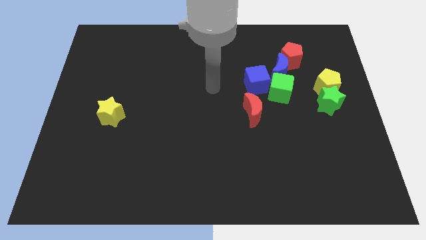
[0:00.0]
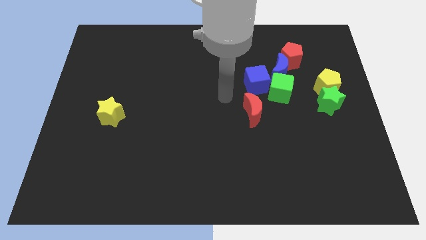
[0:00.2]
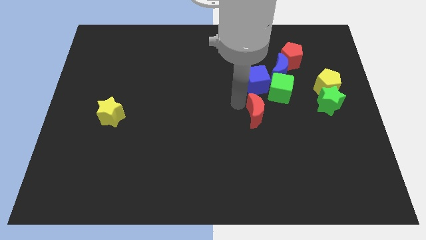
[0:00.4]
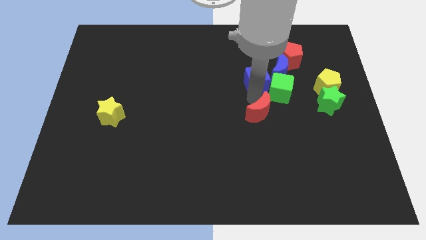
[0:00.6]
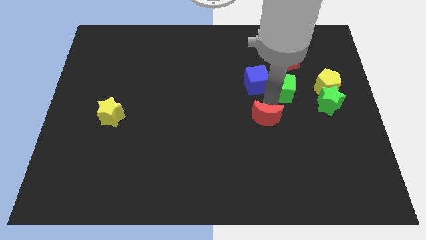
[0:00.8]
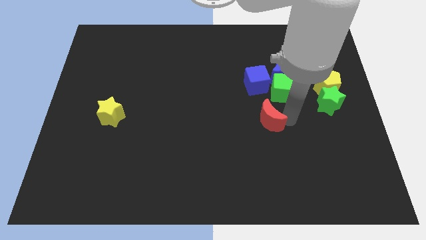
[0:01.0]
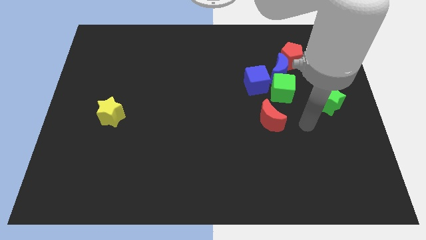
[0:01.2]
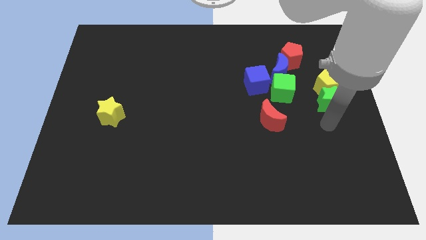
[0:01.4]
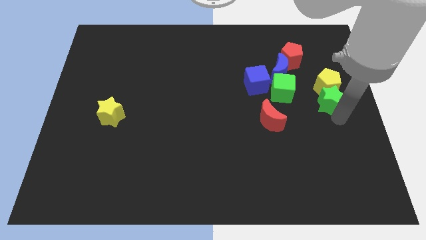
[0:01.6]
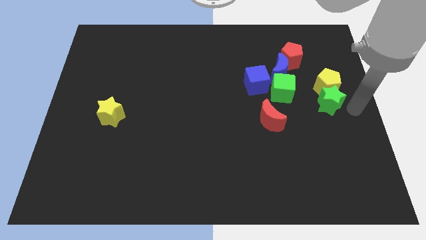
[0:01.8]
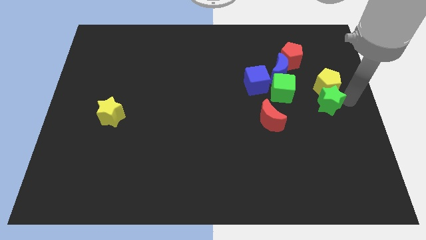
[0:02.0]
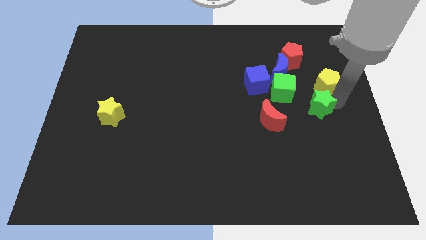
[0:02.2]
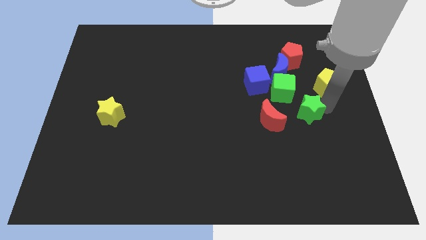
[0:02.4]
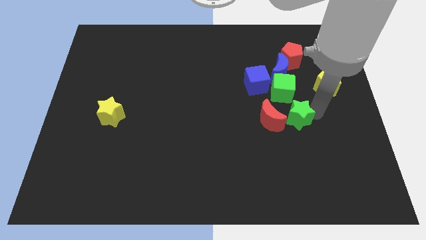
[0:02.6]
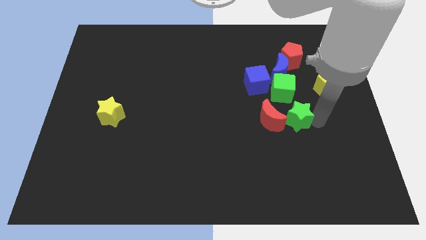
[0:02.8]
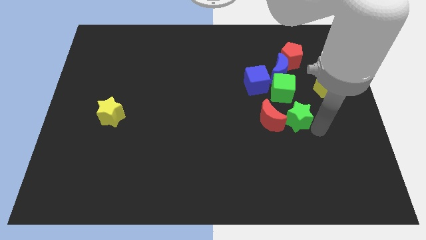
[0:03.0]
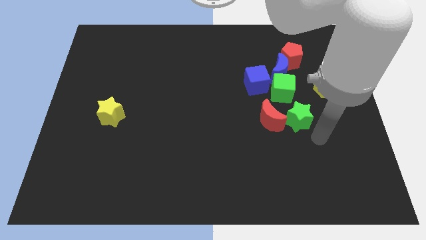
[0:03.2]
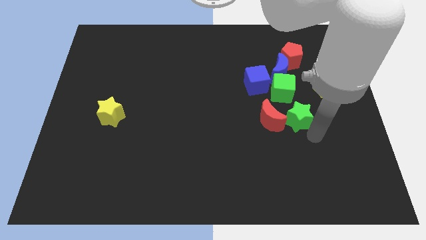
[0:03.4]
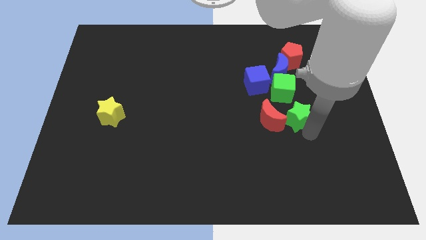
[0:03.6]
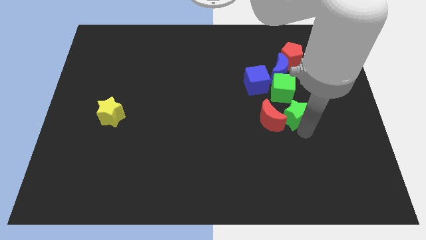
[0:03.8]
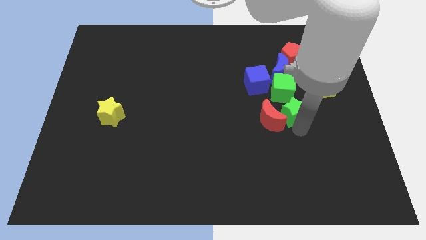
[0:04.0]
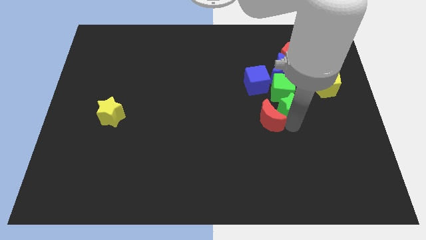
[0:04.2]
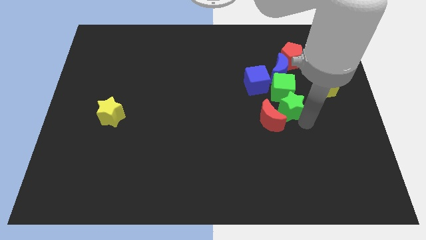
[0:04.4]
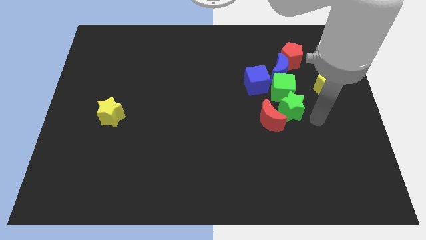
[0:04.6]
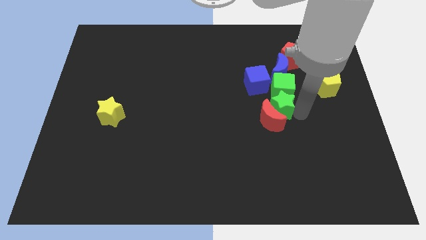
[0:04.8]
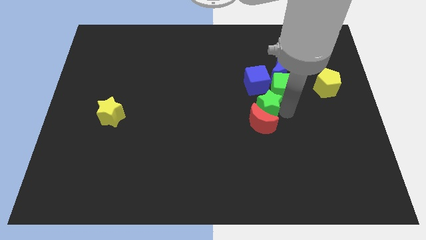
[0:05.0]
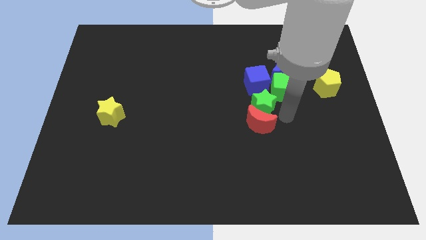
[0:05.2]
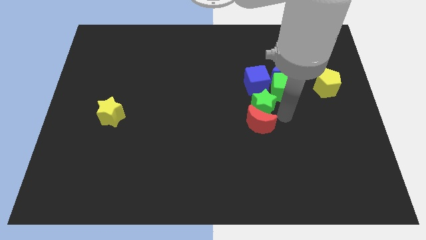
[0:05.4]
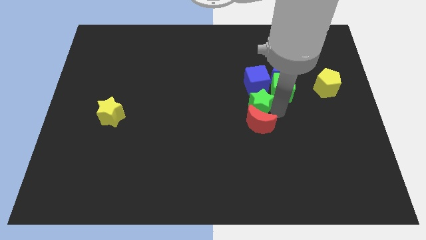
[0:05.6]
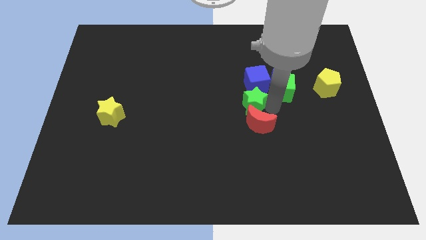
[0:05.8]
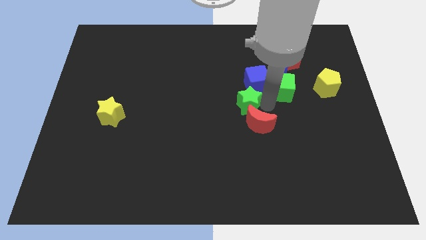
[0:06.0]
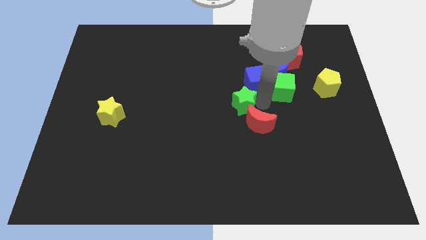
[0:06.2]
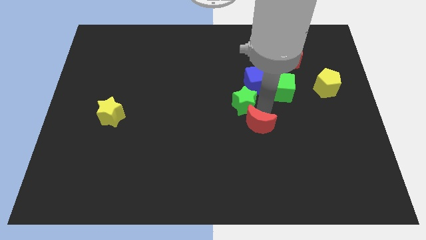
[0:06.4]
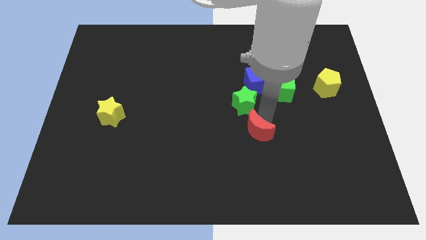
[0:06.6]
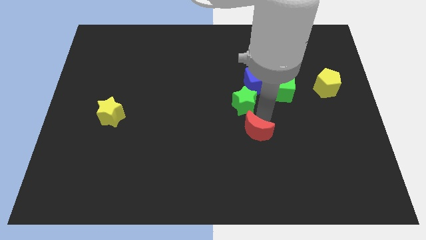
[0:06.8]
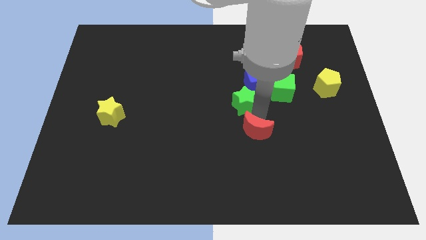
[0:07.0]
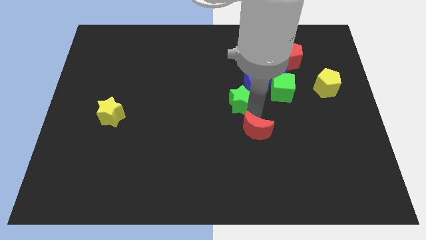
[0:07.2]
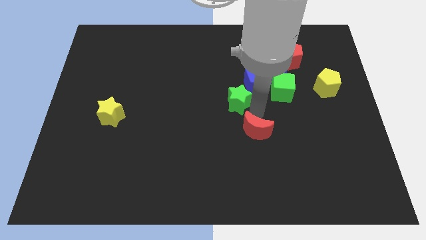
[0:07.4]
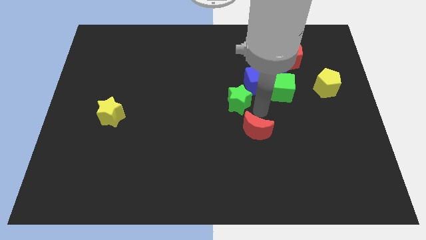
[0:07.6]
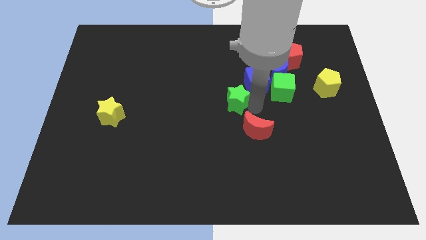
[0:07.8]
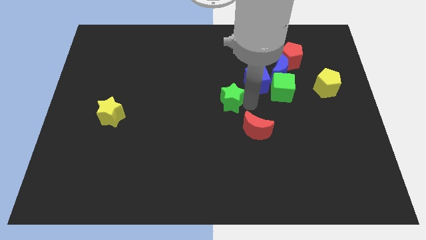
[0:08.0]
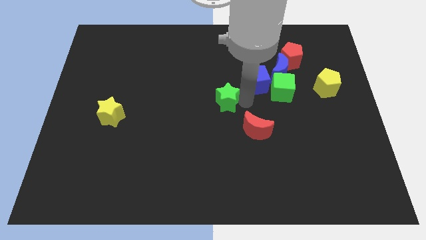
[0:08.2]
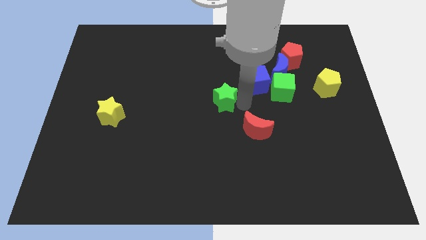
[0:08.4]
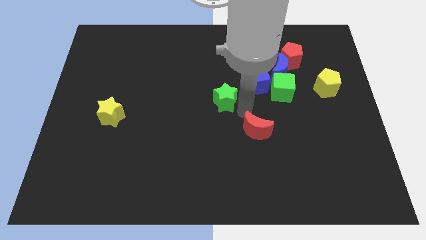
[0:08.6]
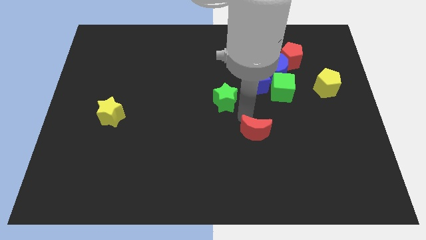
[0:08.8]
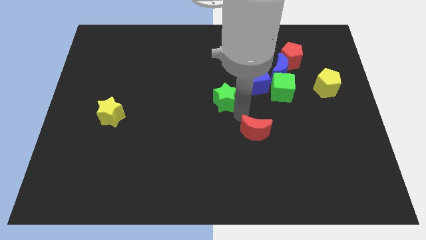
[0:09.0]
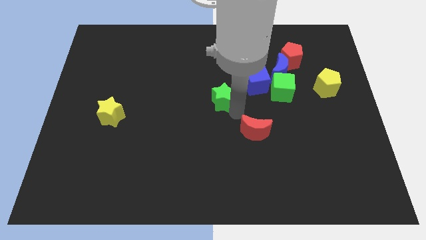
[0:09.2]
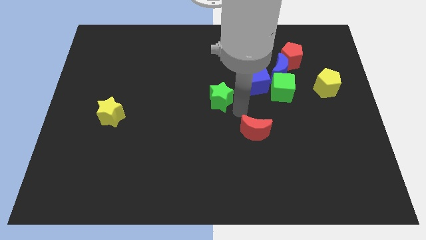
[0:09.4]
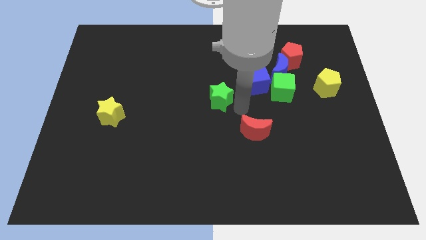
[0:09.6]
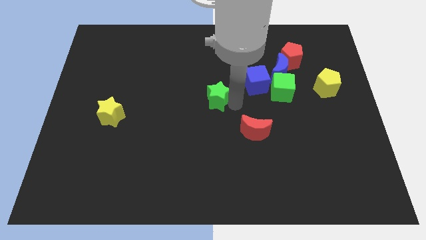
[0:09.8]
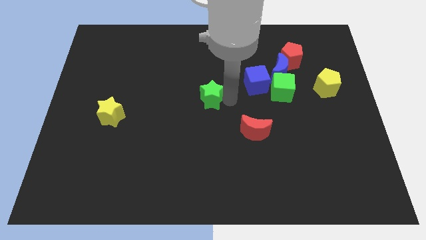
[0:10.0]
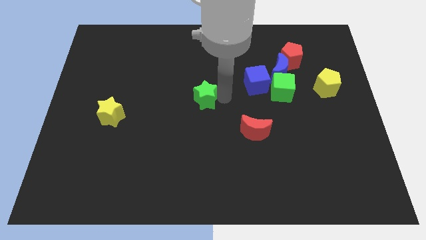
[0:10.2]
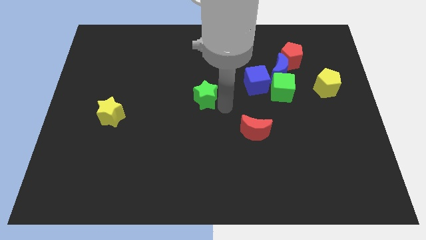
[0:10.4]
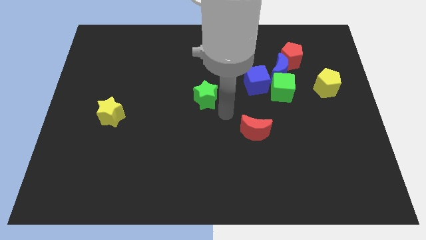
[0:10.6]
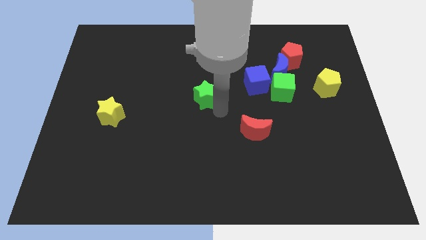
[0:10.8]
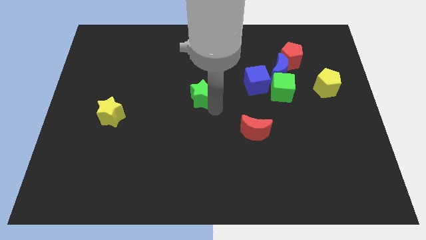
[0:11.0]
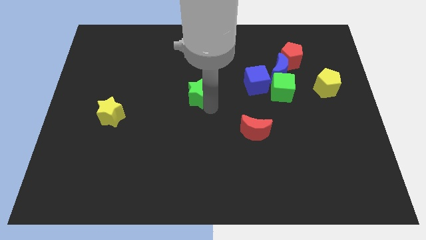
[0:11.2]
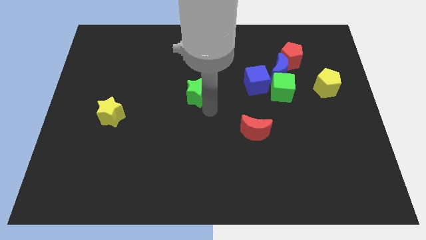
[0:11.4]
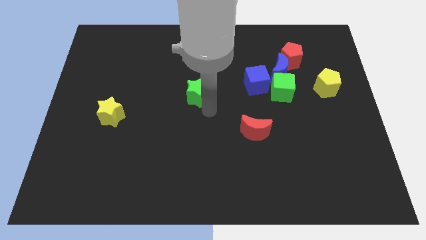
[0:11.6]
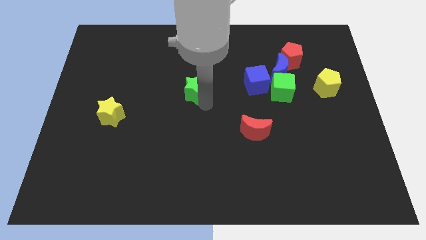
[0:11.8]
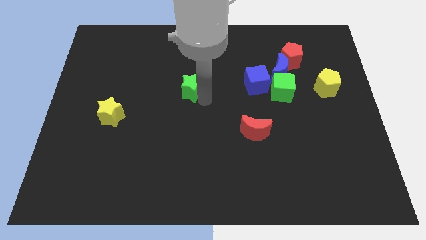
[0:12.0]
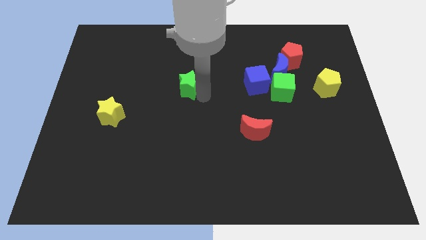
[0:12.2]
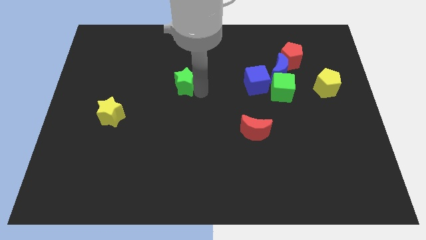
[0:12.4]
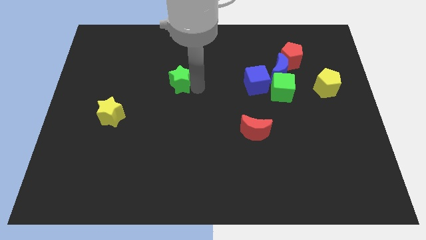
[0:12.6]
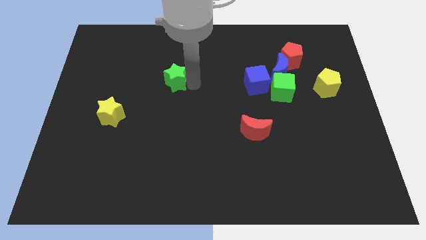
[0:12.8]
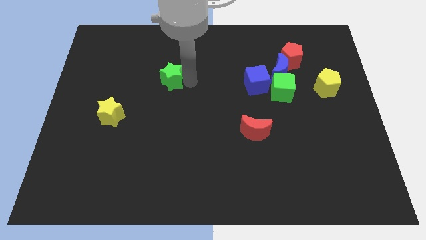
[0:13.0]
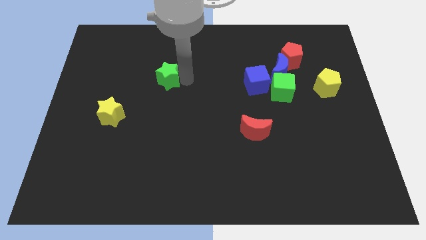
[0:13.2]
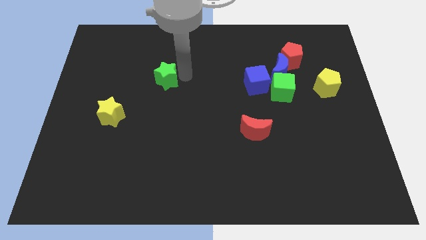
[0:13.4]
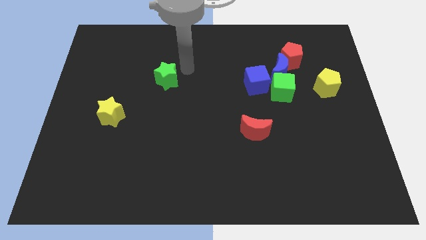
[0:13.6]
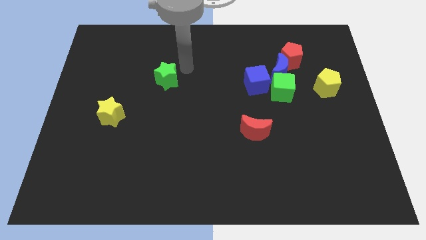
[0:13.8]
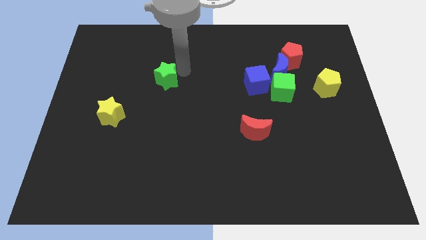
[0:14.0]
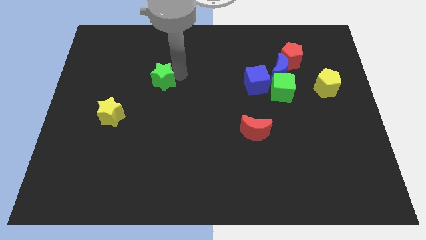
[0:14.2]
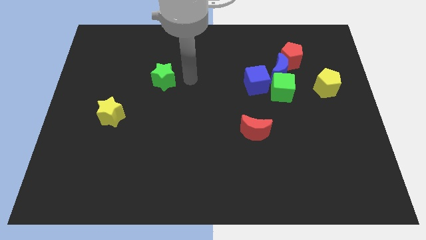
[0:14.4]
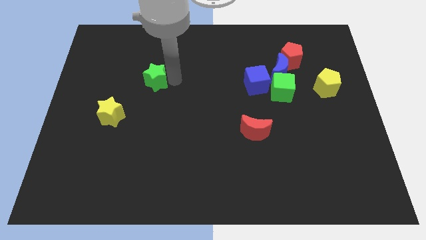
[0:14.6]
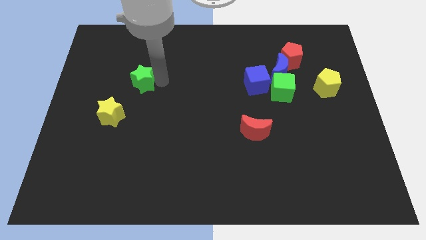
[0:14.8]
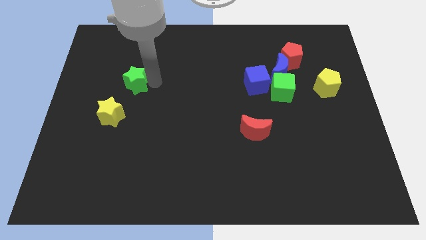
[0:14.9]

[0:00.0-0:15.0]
push the green star to the top of the yellow star
